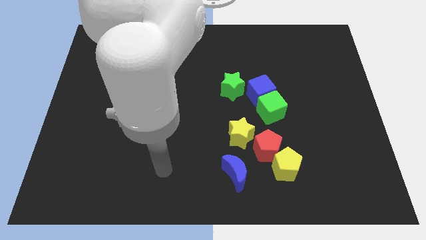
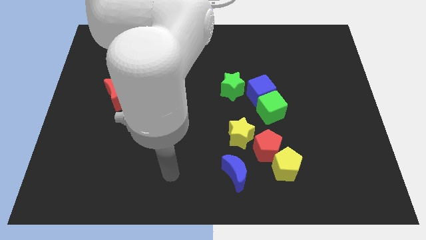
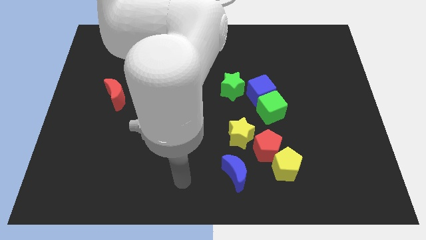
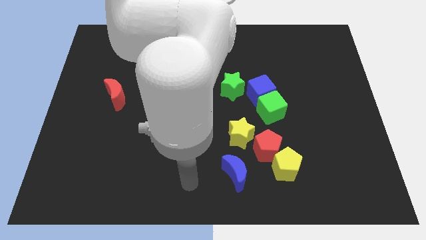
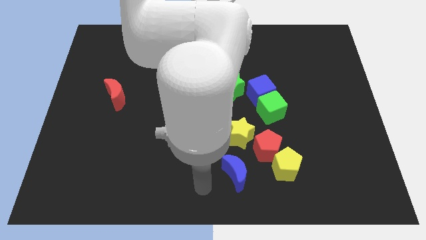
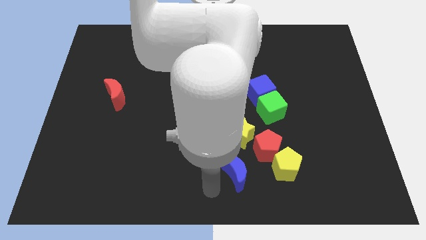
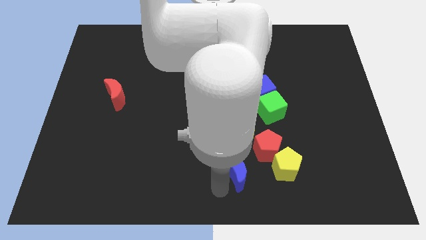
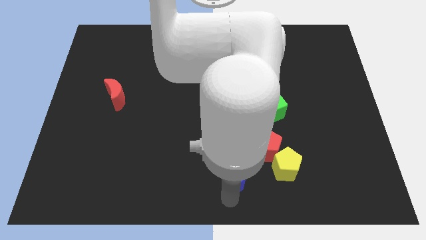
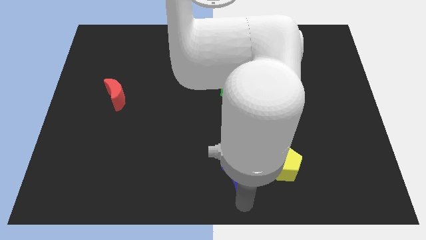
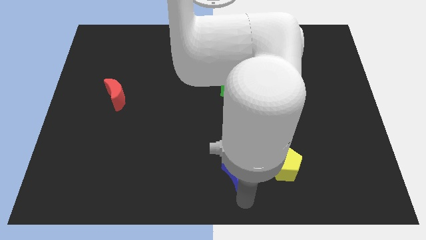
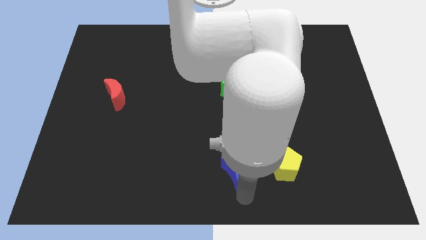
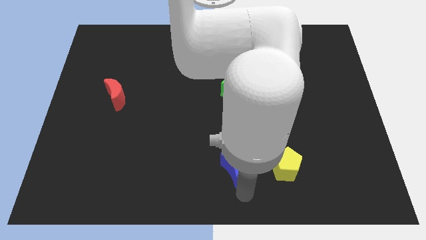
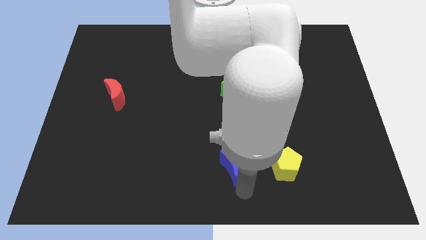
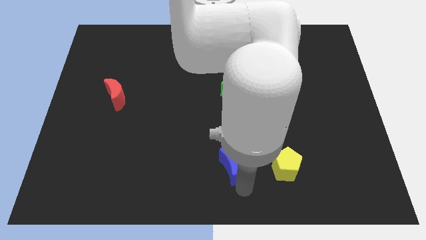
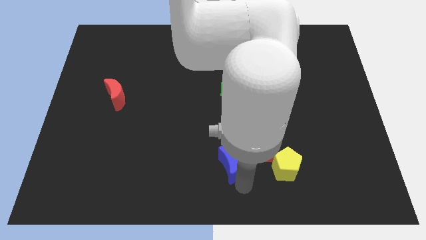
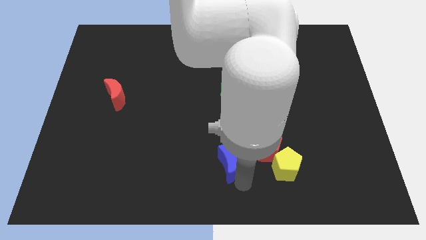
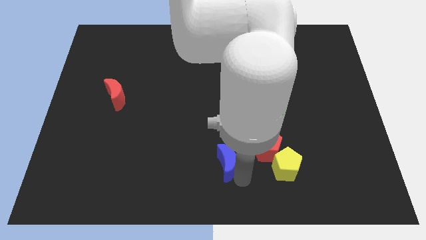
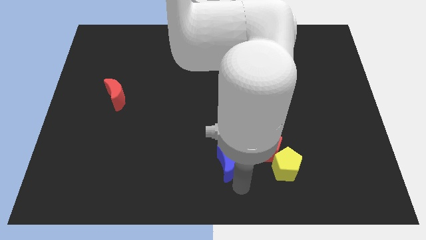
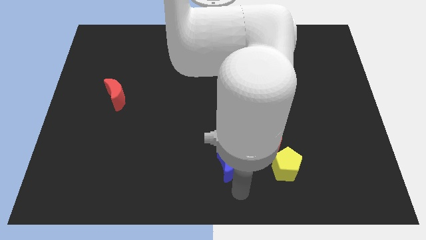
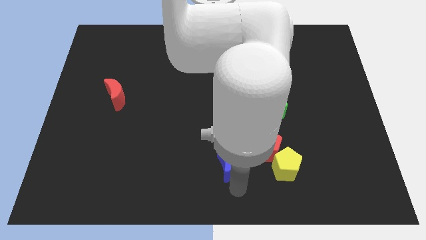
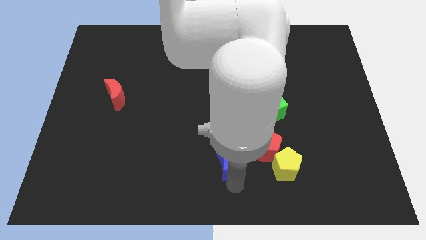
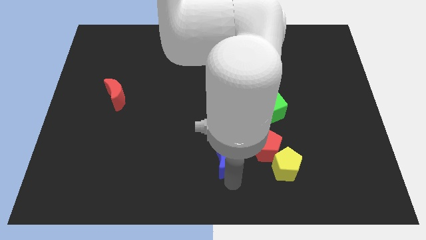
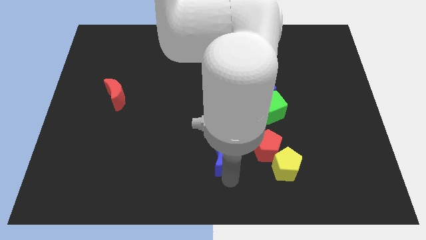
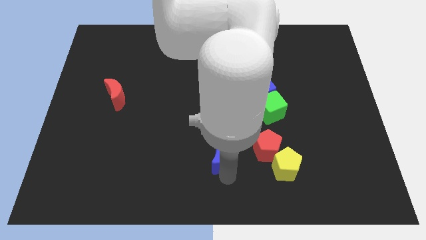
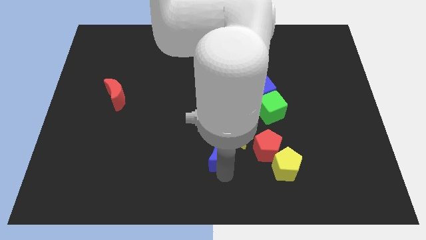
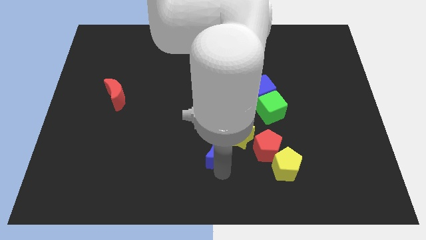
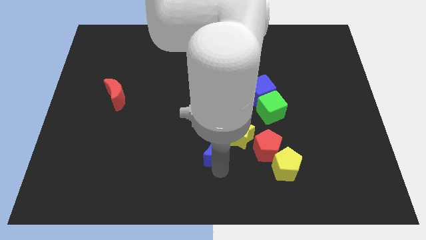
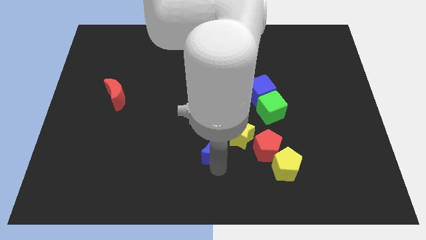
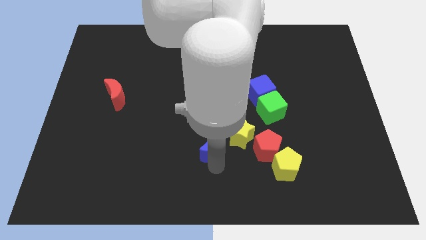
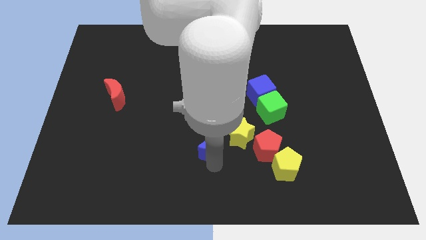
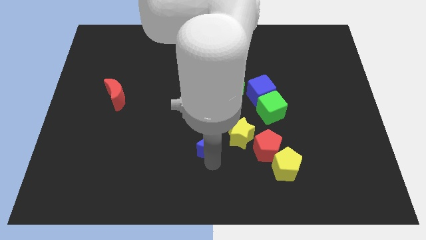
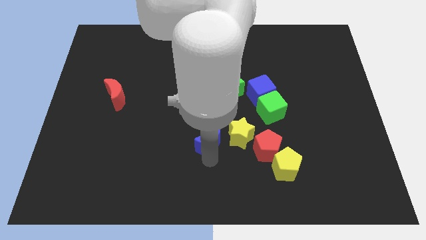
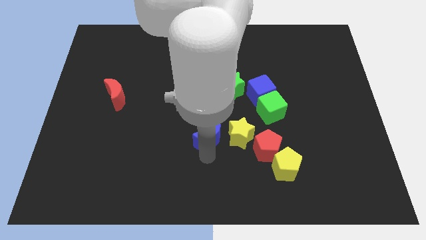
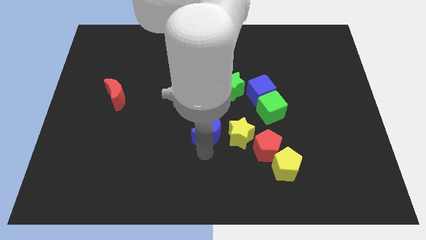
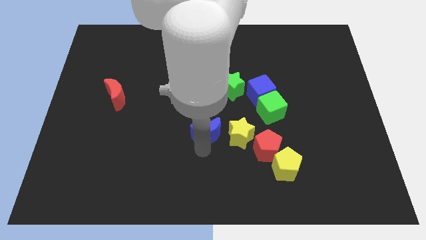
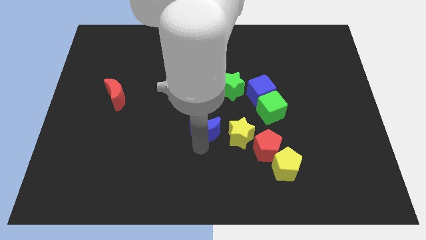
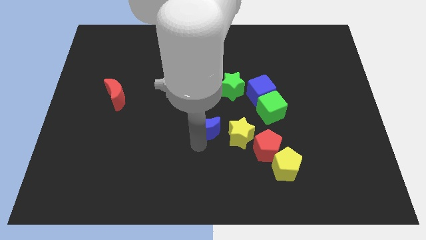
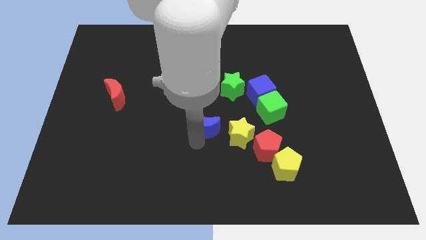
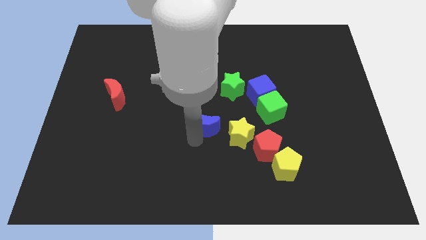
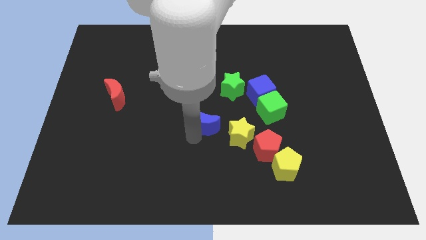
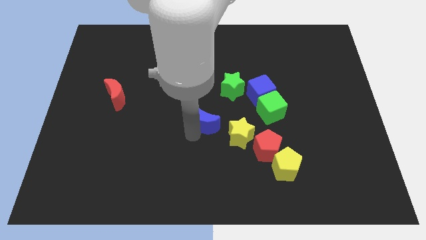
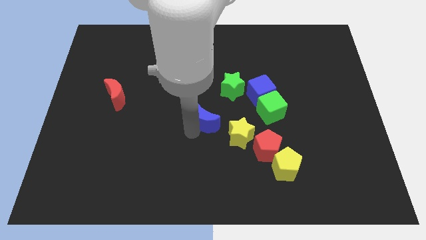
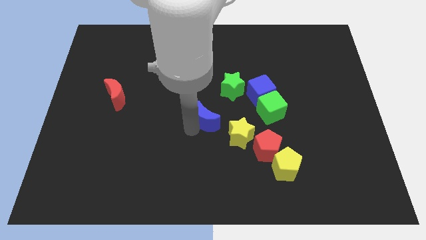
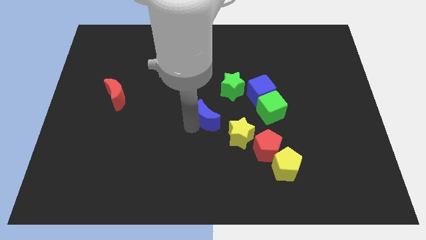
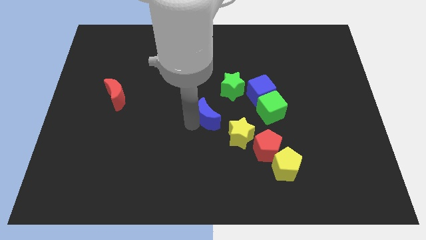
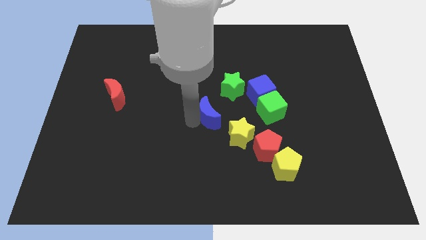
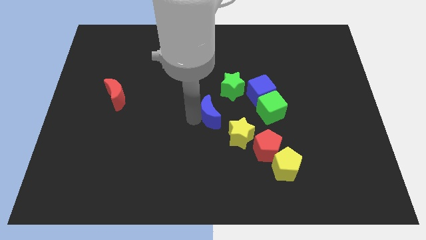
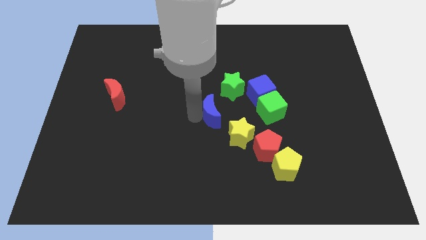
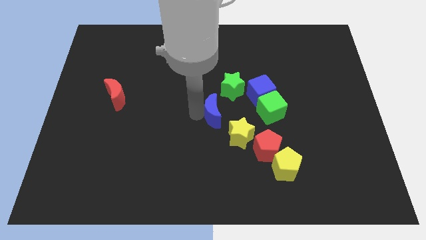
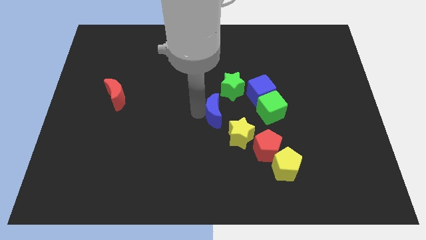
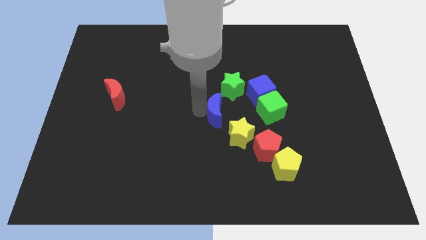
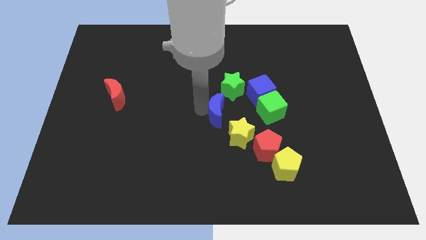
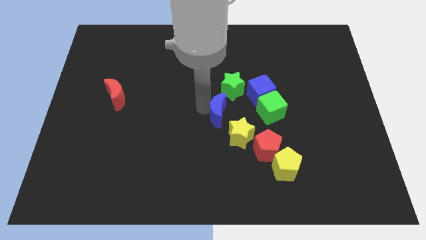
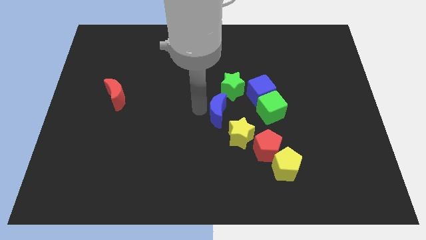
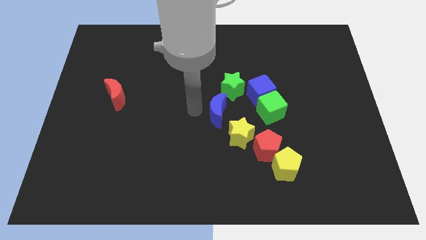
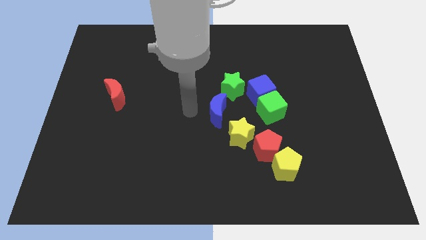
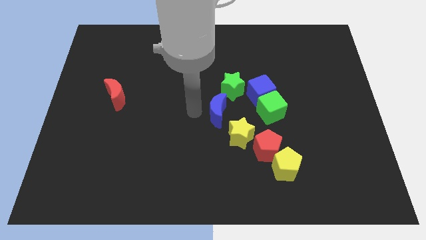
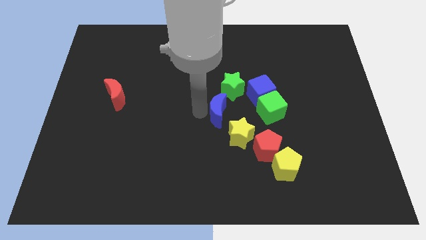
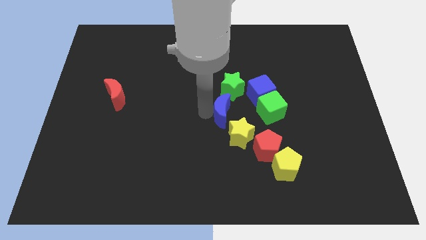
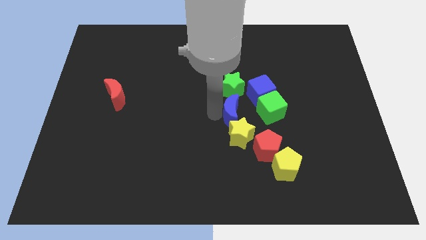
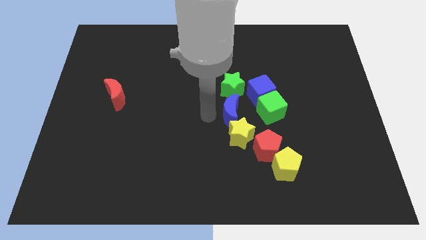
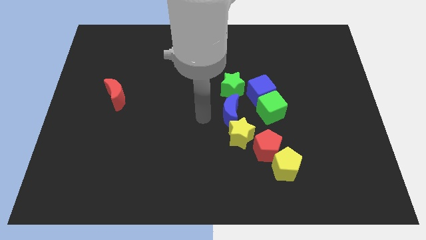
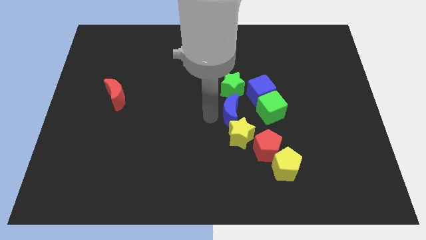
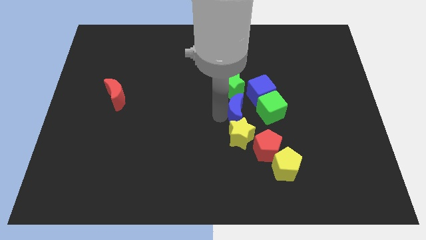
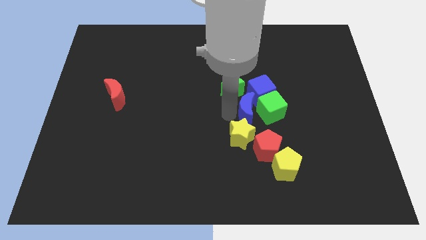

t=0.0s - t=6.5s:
put the blue moon next to the green cube

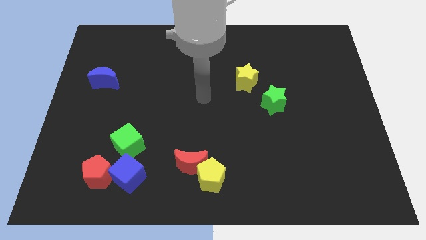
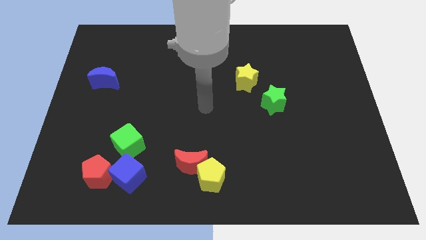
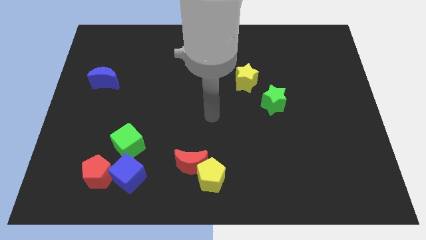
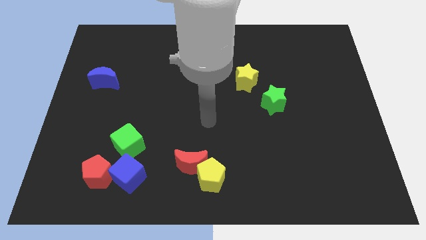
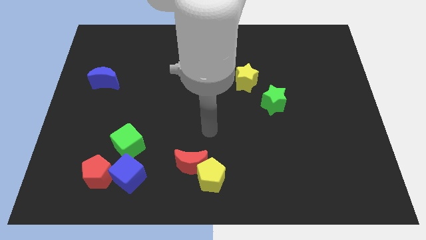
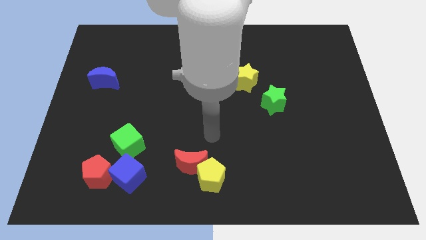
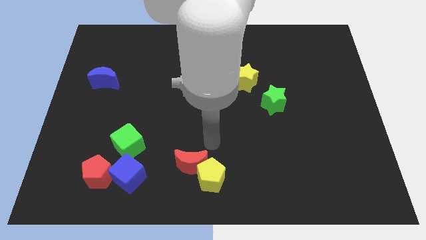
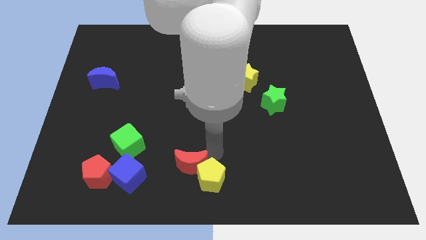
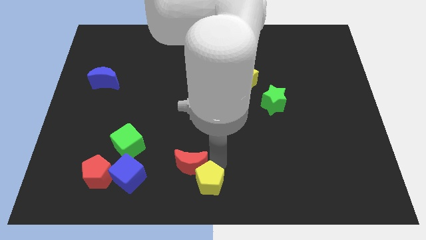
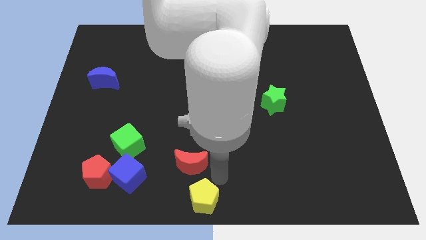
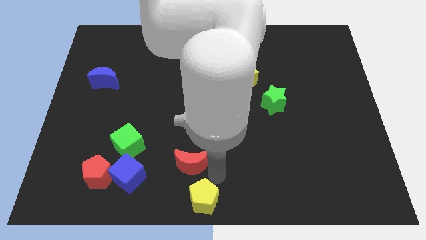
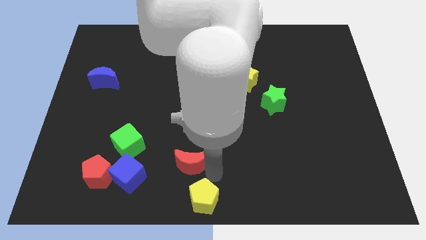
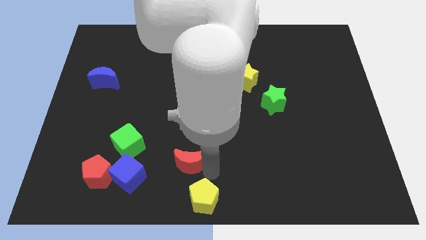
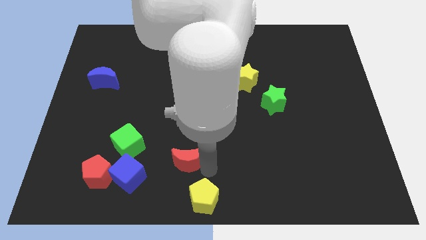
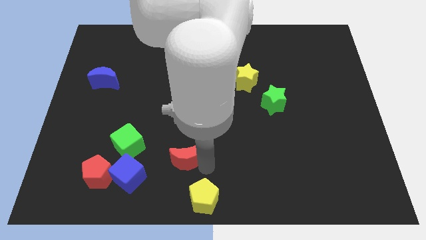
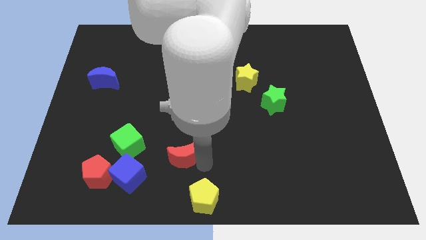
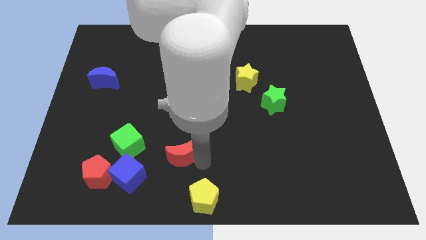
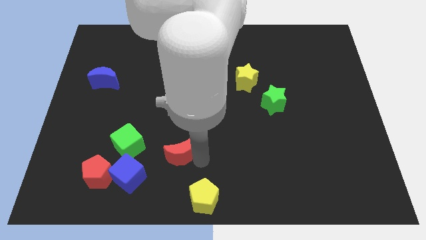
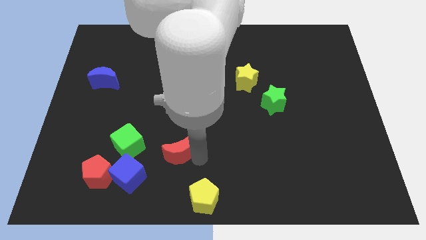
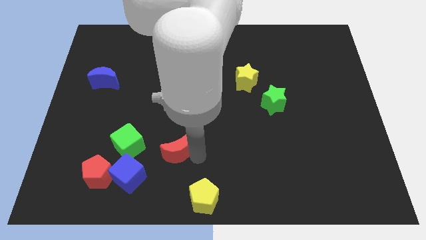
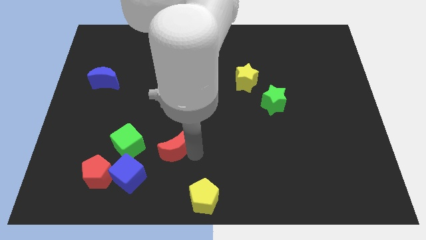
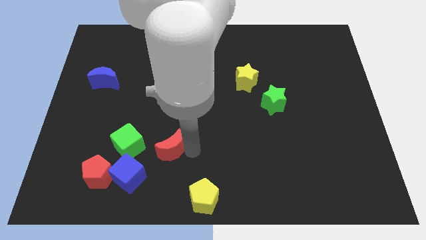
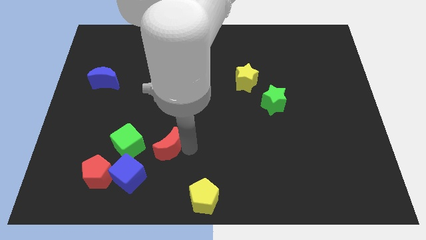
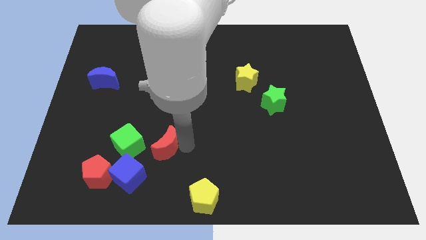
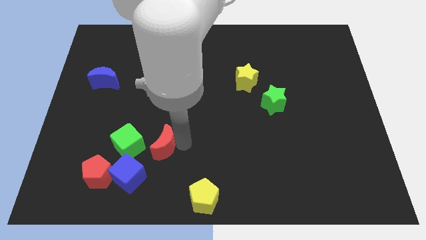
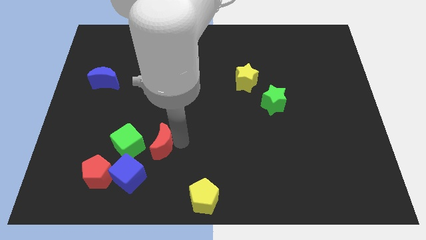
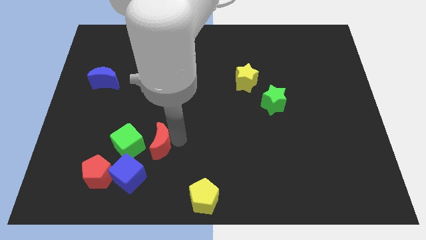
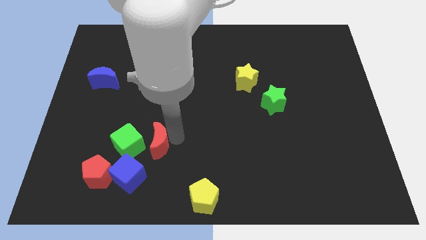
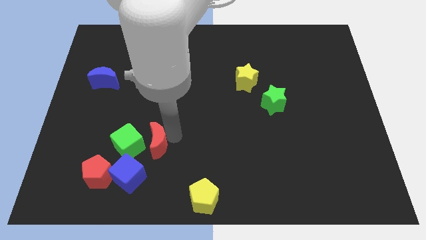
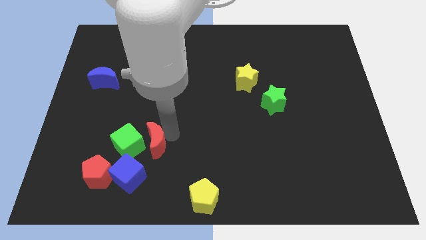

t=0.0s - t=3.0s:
slide the red moon next to the green cube
